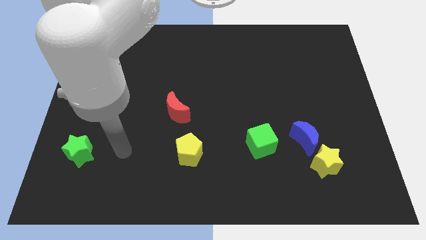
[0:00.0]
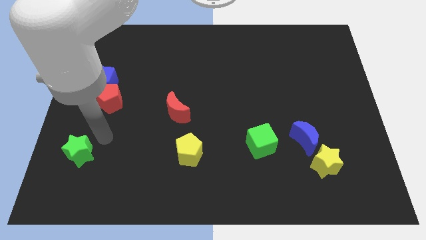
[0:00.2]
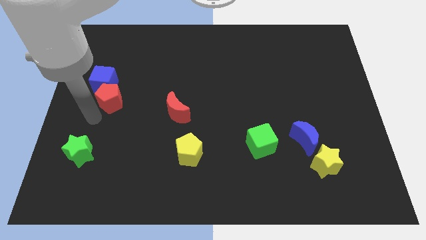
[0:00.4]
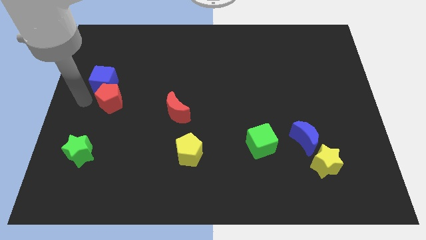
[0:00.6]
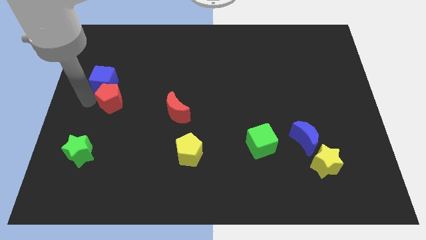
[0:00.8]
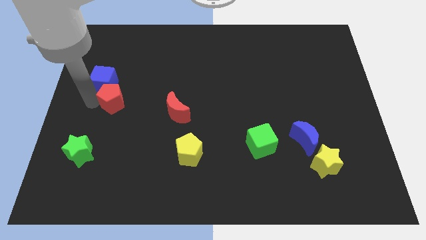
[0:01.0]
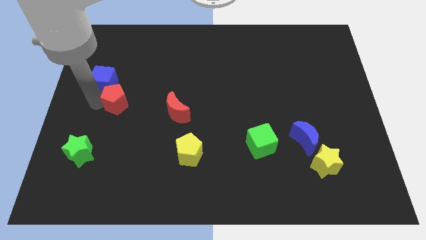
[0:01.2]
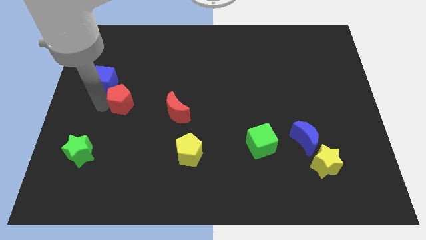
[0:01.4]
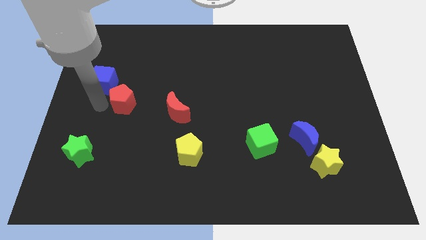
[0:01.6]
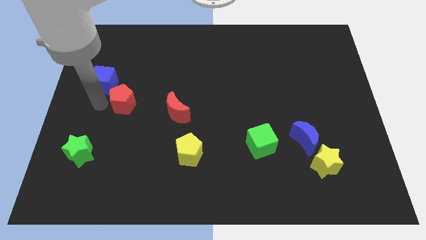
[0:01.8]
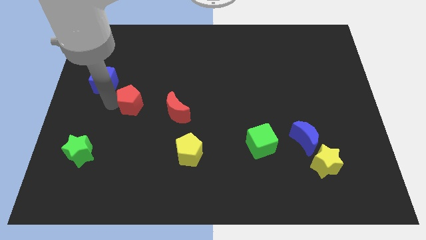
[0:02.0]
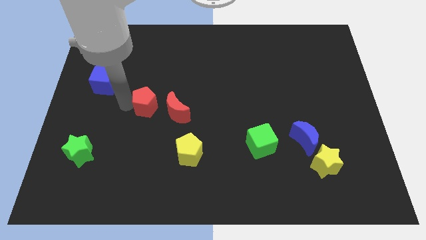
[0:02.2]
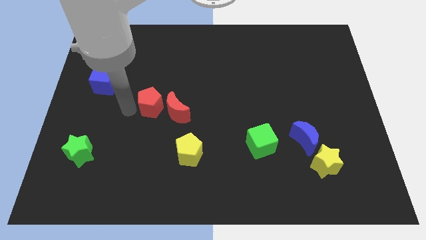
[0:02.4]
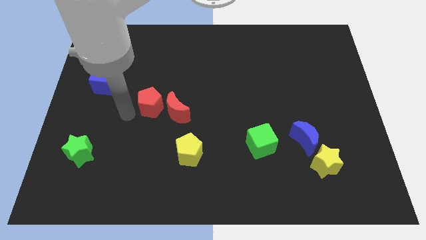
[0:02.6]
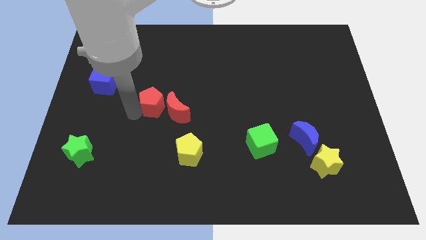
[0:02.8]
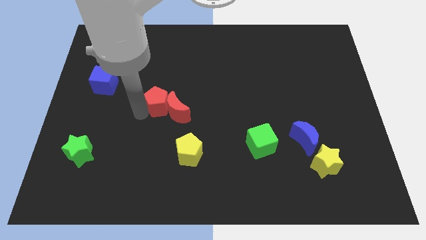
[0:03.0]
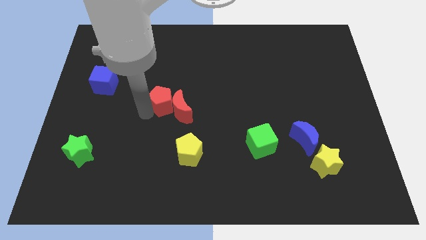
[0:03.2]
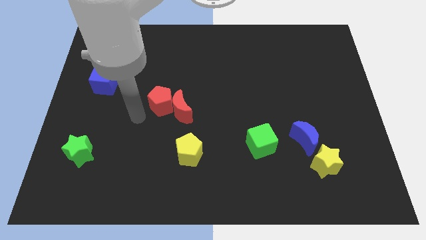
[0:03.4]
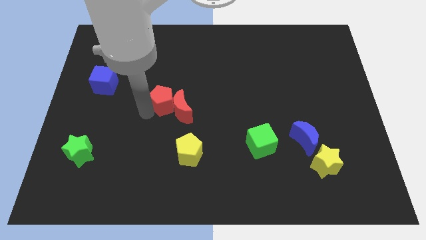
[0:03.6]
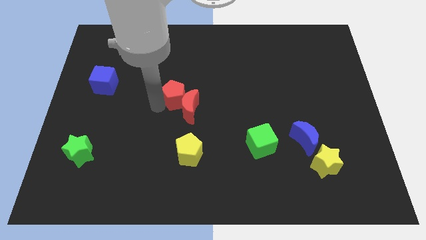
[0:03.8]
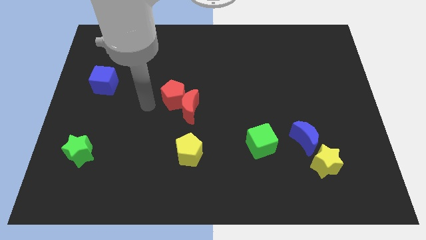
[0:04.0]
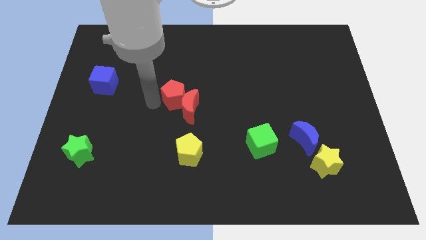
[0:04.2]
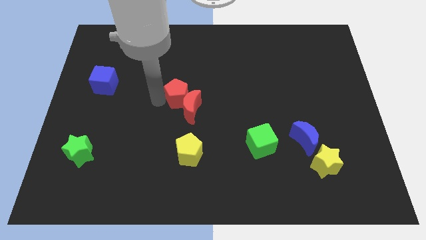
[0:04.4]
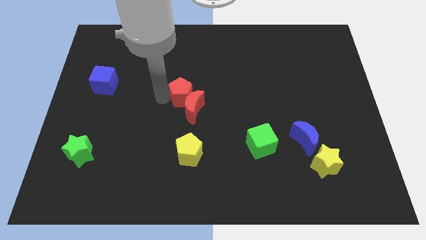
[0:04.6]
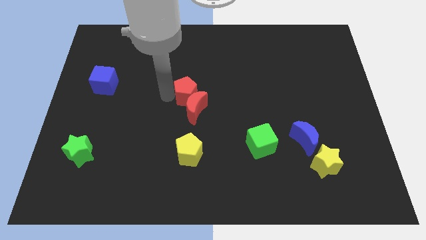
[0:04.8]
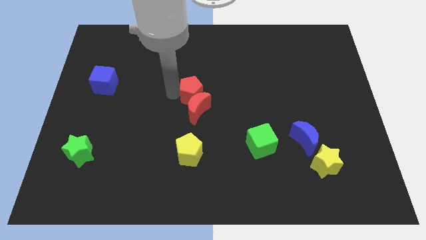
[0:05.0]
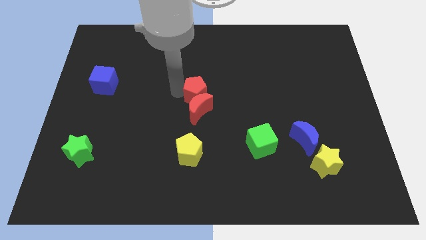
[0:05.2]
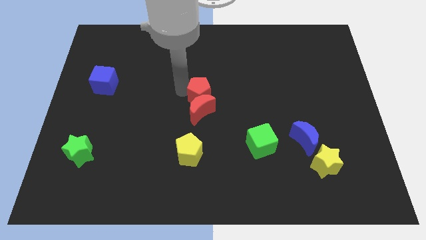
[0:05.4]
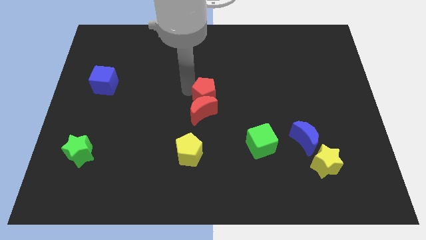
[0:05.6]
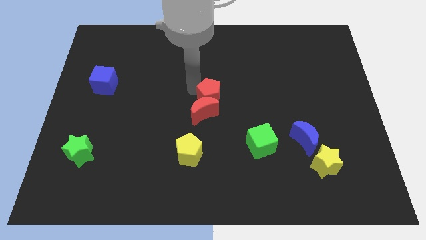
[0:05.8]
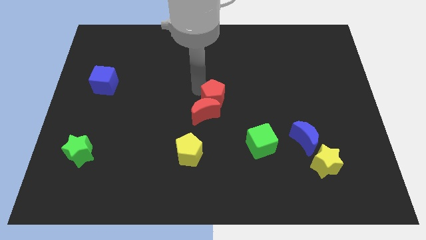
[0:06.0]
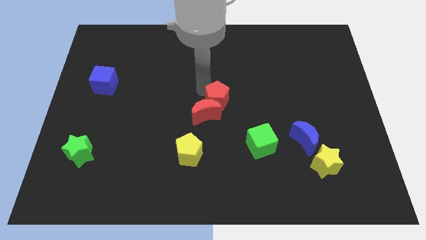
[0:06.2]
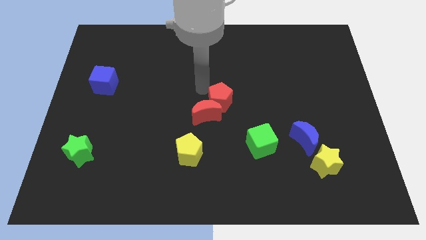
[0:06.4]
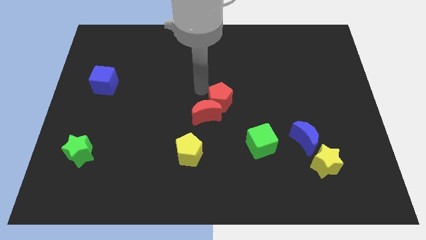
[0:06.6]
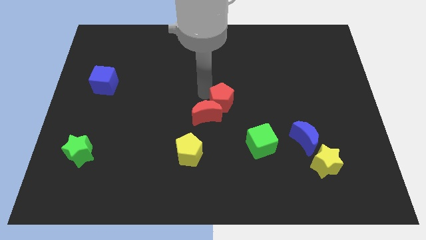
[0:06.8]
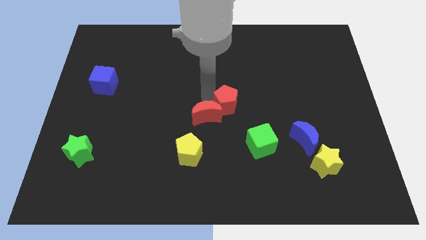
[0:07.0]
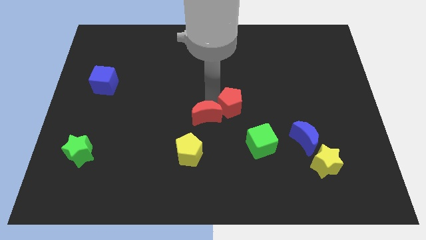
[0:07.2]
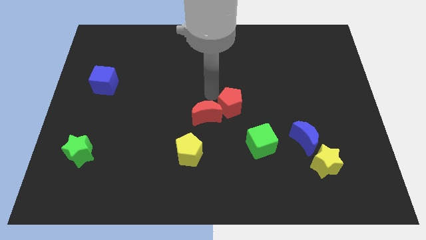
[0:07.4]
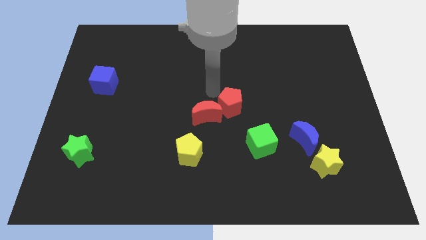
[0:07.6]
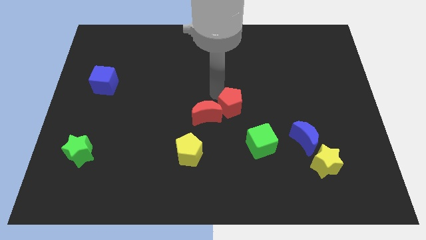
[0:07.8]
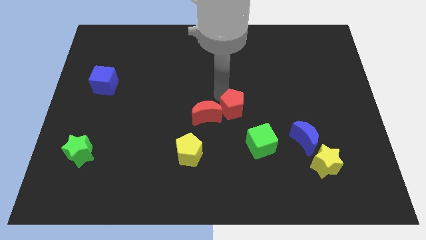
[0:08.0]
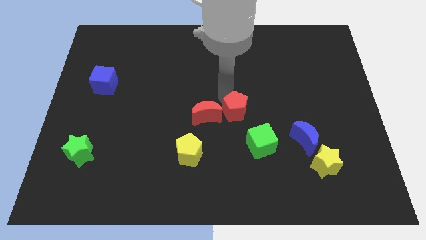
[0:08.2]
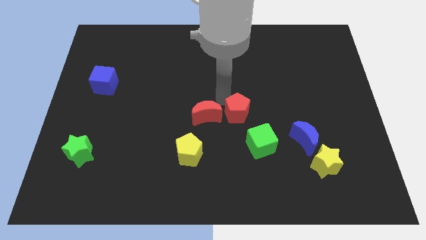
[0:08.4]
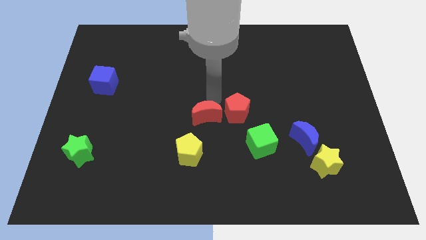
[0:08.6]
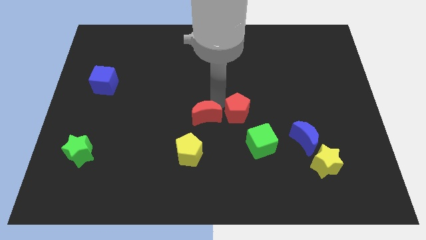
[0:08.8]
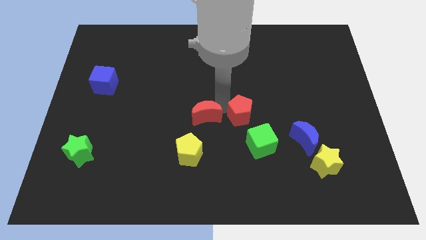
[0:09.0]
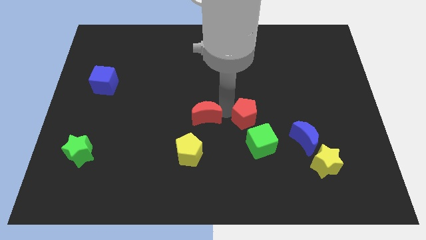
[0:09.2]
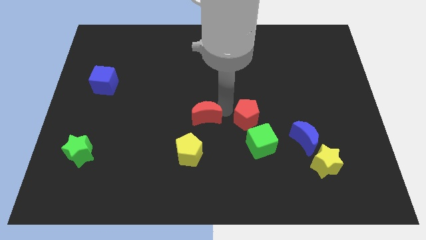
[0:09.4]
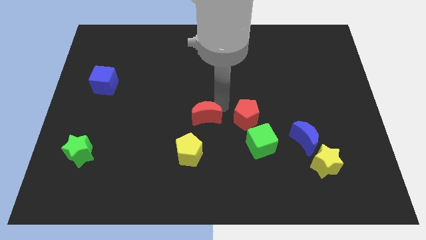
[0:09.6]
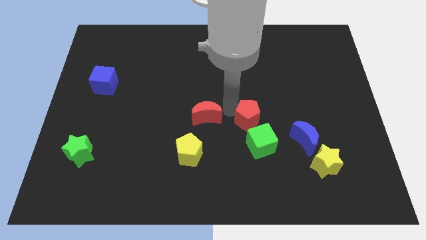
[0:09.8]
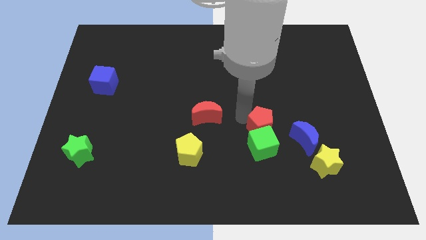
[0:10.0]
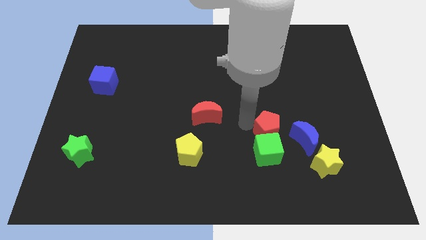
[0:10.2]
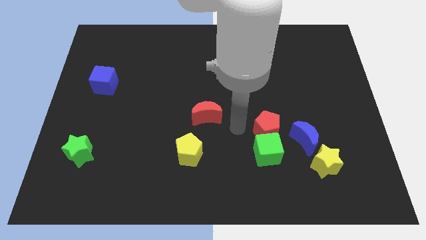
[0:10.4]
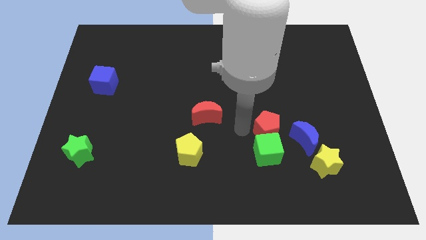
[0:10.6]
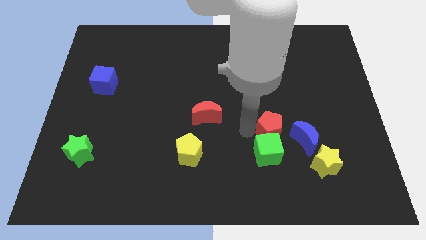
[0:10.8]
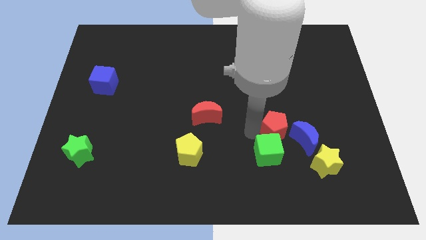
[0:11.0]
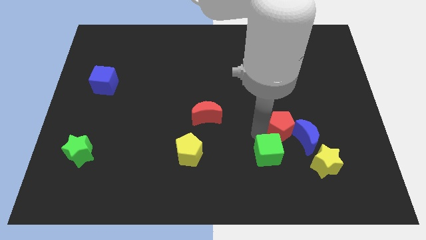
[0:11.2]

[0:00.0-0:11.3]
push the red pentagon to the blue moon

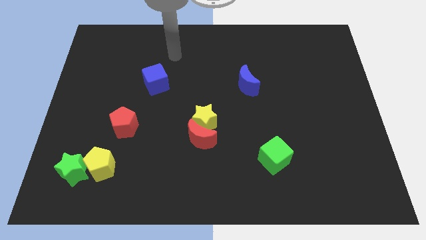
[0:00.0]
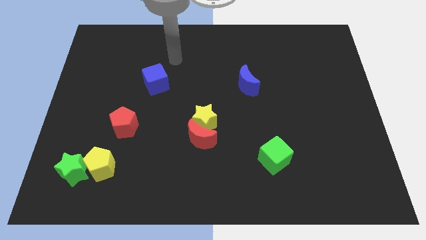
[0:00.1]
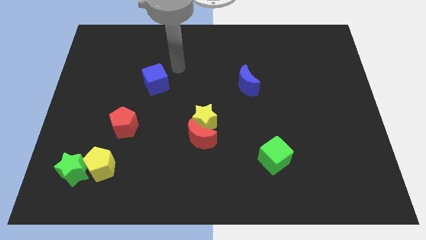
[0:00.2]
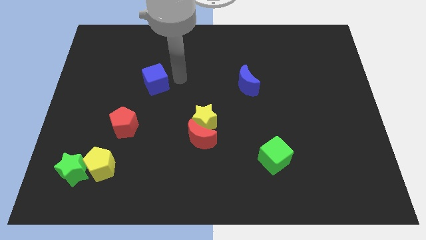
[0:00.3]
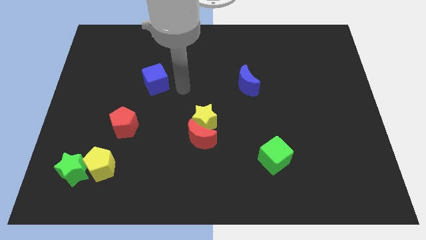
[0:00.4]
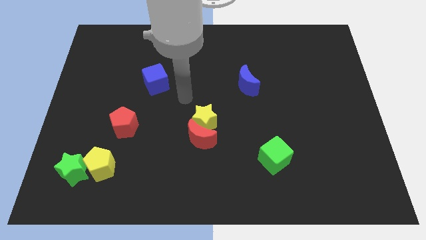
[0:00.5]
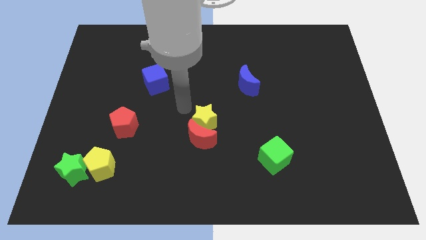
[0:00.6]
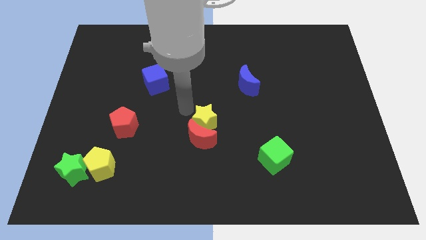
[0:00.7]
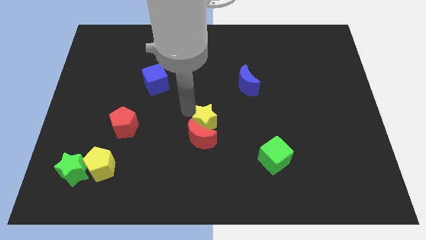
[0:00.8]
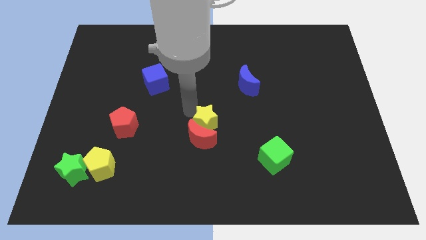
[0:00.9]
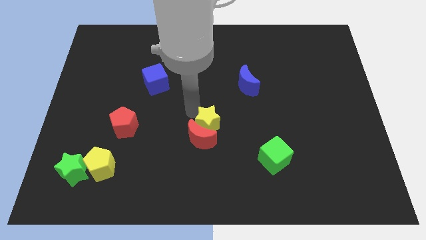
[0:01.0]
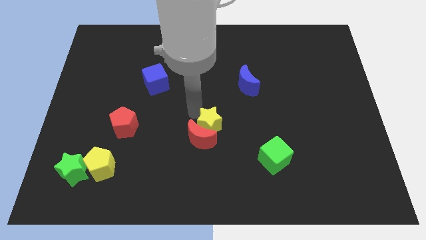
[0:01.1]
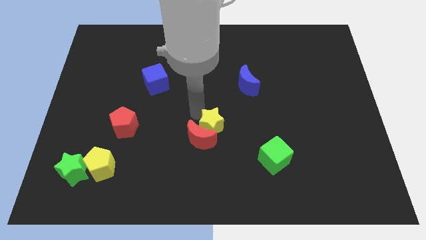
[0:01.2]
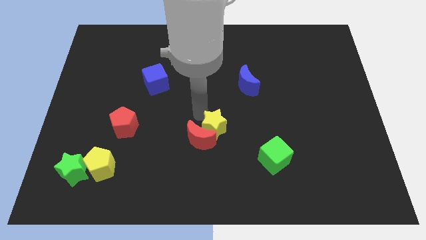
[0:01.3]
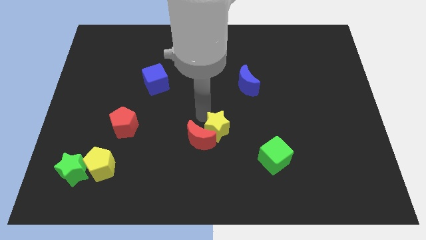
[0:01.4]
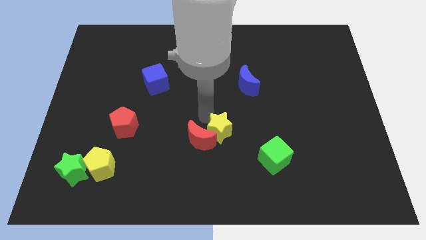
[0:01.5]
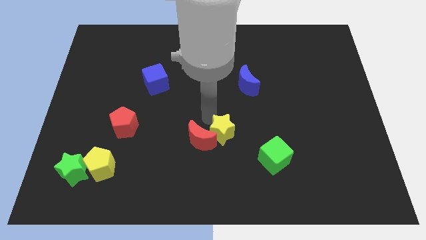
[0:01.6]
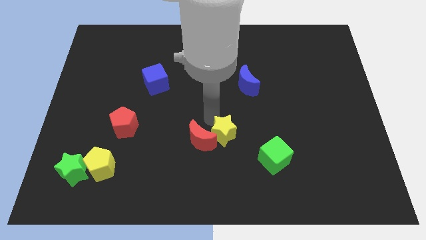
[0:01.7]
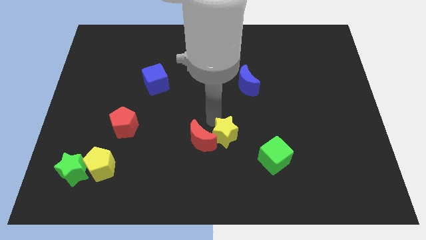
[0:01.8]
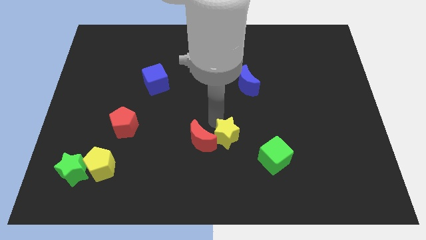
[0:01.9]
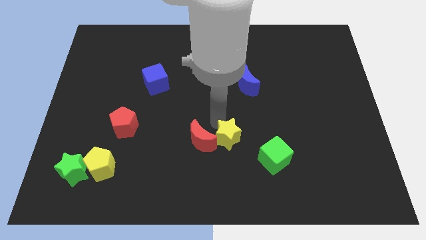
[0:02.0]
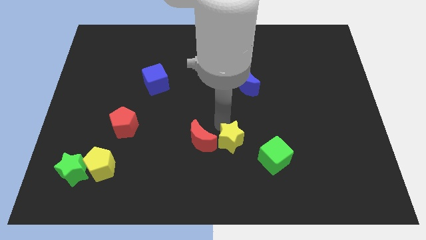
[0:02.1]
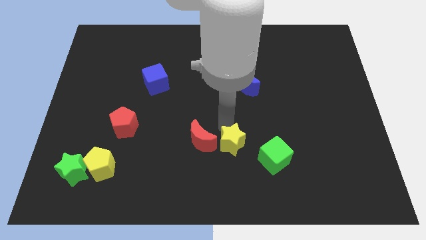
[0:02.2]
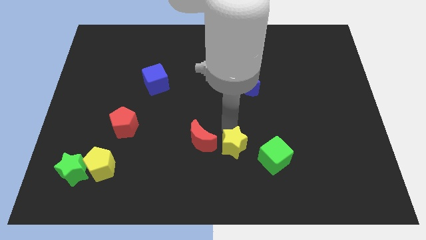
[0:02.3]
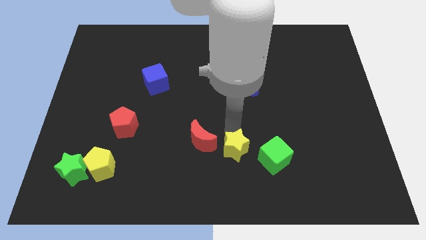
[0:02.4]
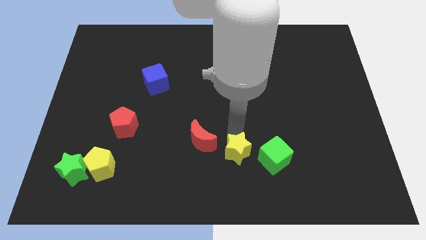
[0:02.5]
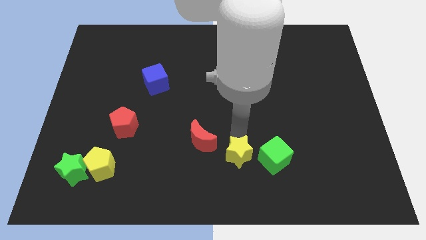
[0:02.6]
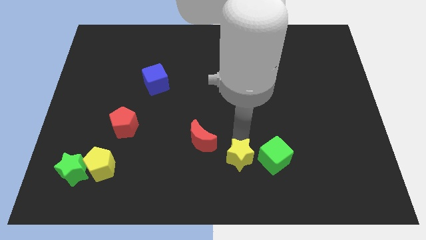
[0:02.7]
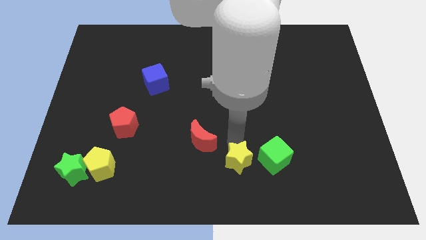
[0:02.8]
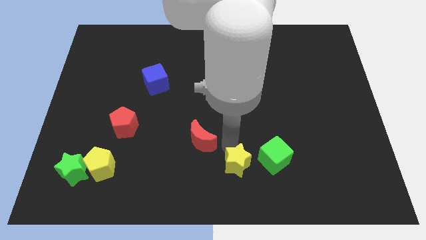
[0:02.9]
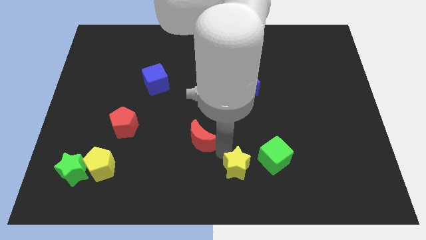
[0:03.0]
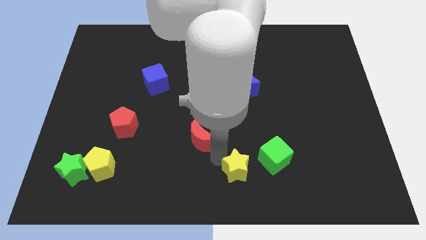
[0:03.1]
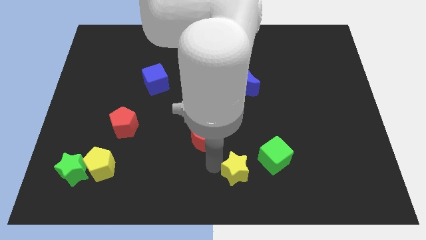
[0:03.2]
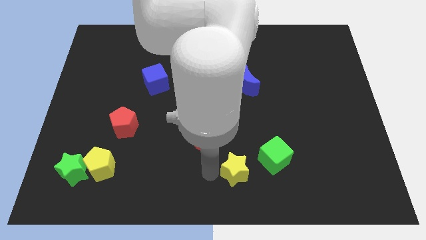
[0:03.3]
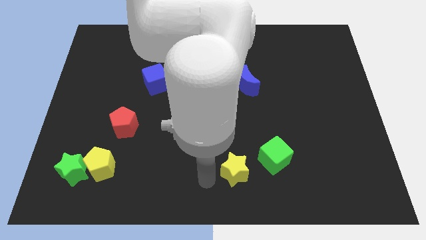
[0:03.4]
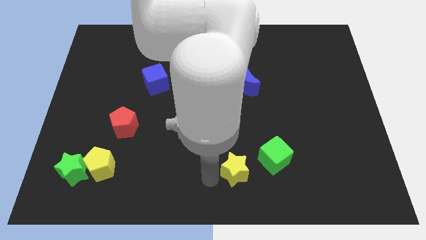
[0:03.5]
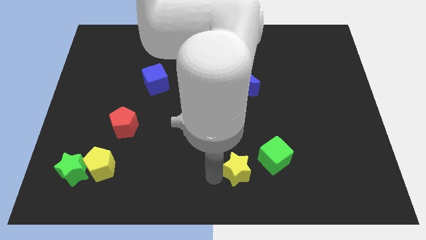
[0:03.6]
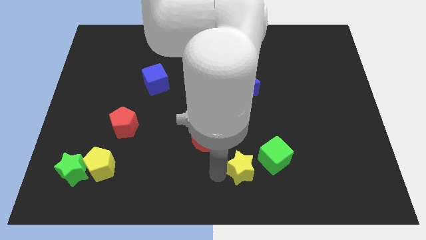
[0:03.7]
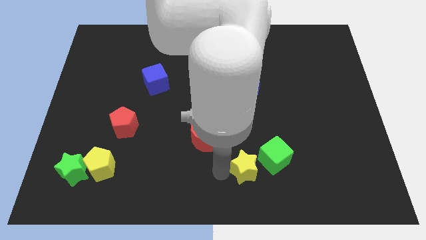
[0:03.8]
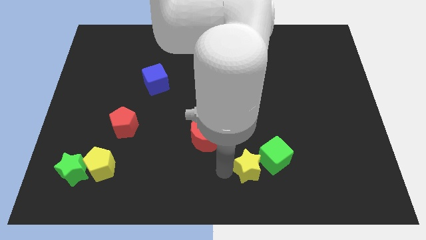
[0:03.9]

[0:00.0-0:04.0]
slide the yellow star towards the green cube
